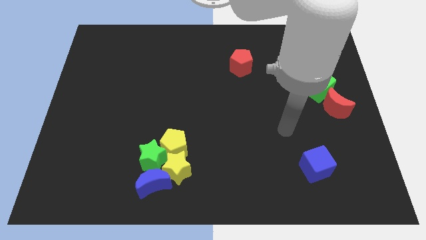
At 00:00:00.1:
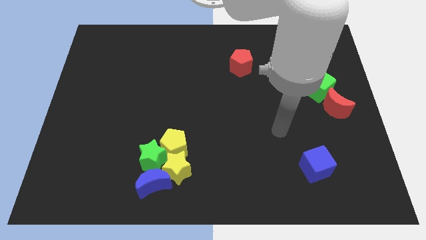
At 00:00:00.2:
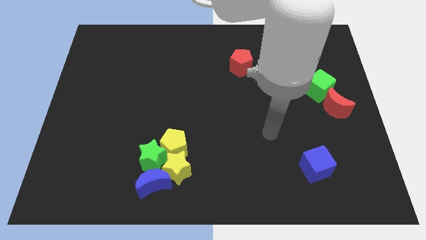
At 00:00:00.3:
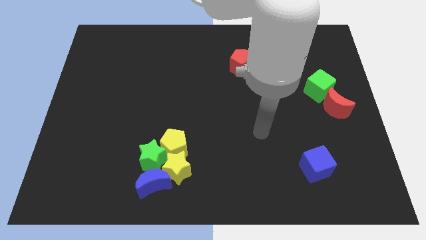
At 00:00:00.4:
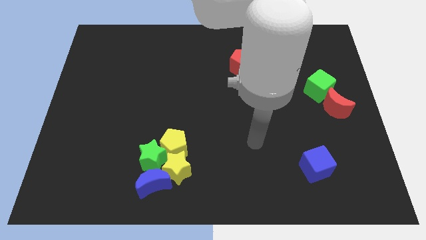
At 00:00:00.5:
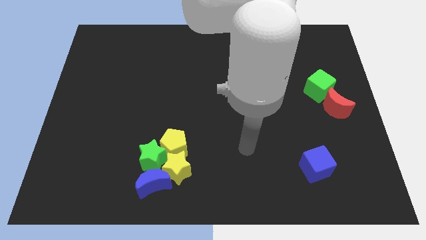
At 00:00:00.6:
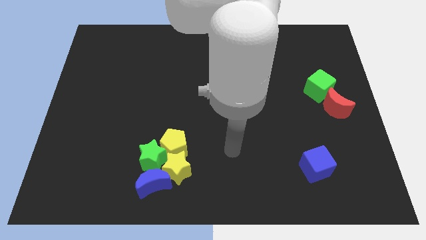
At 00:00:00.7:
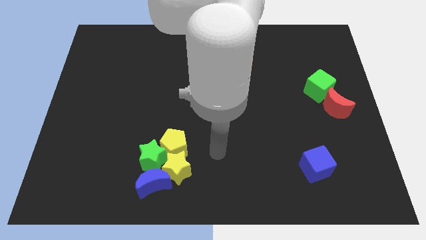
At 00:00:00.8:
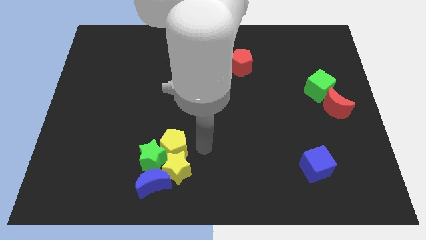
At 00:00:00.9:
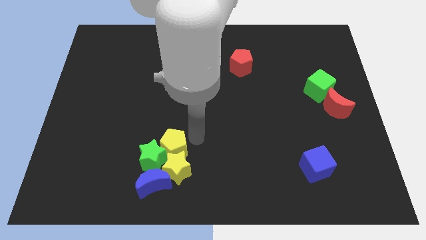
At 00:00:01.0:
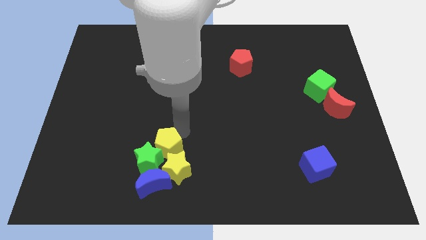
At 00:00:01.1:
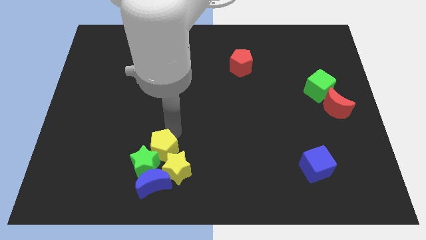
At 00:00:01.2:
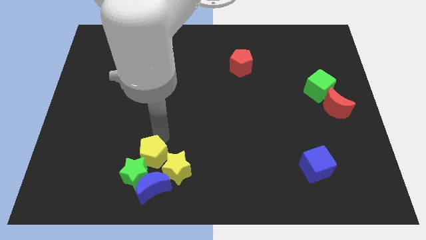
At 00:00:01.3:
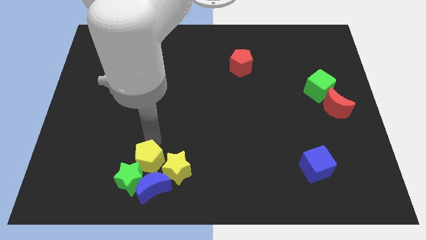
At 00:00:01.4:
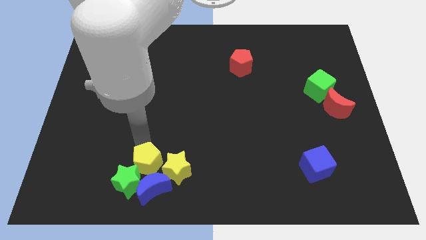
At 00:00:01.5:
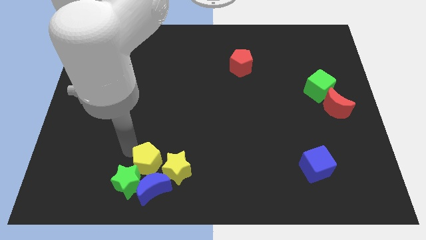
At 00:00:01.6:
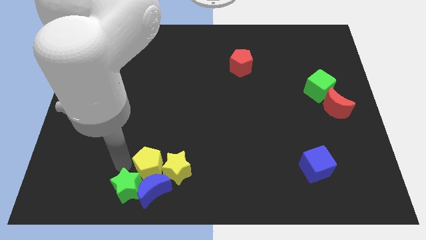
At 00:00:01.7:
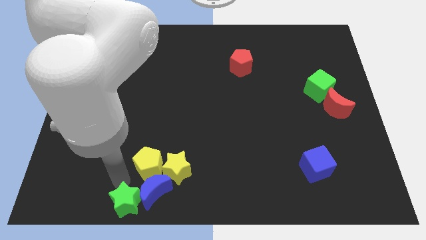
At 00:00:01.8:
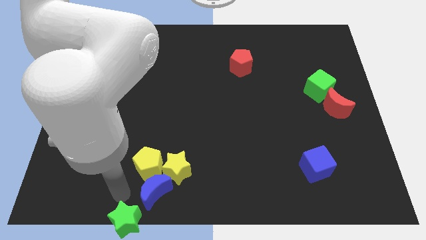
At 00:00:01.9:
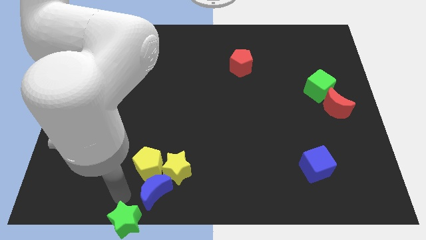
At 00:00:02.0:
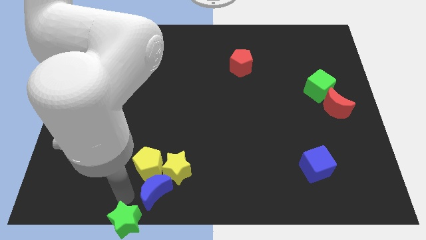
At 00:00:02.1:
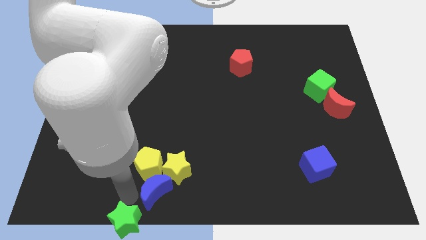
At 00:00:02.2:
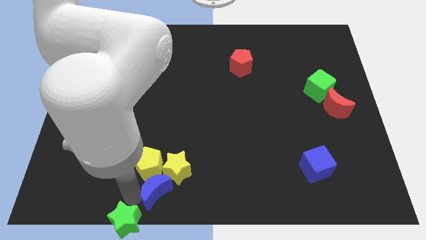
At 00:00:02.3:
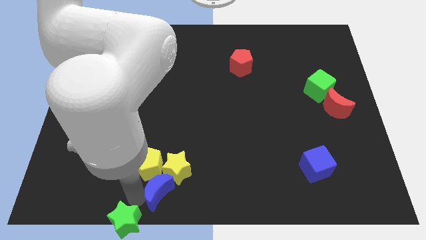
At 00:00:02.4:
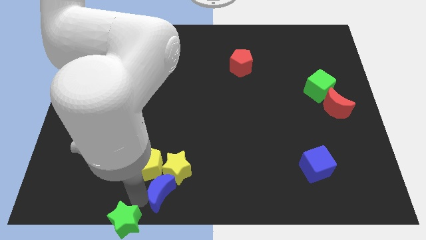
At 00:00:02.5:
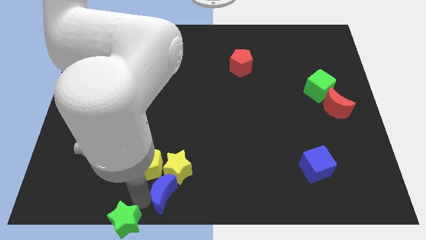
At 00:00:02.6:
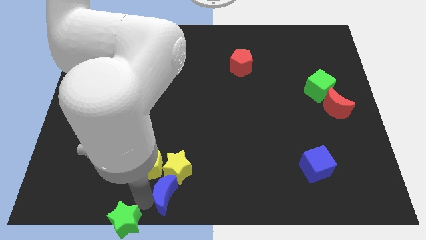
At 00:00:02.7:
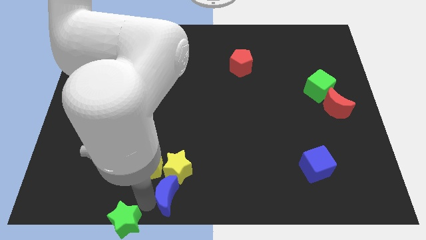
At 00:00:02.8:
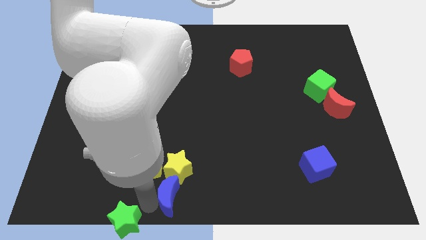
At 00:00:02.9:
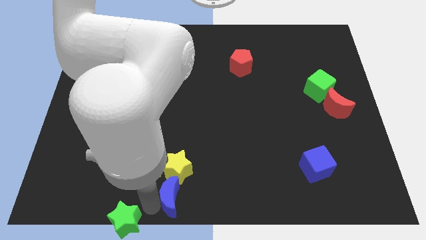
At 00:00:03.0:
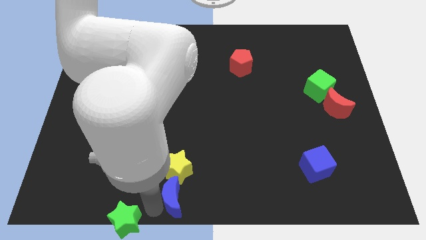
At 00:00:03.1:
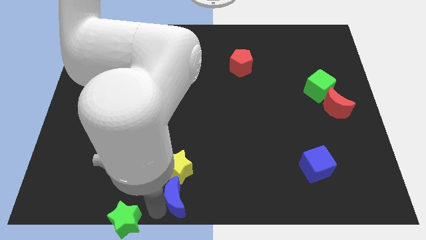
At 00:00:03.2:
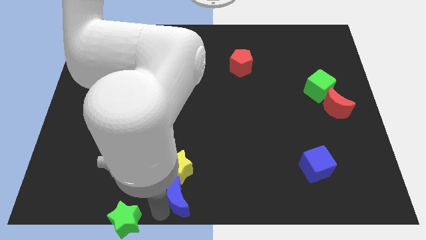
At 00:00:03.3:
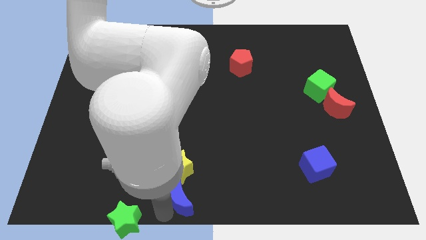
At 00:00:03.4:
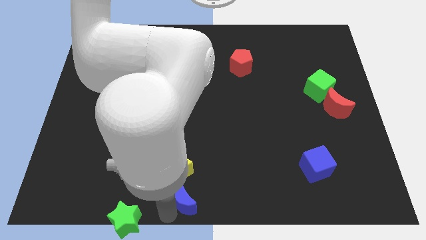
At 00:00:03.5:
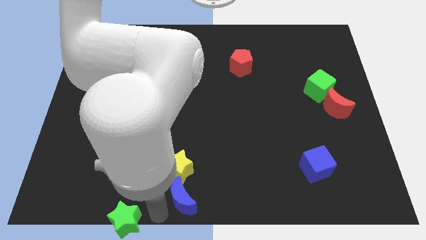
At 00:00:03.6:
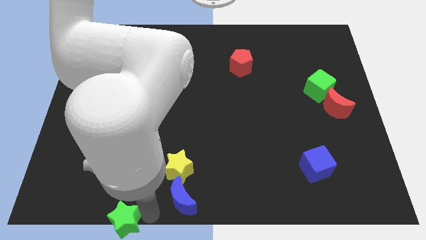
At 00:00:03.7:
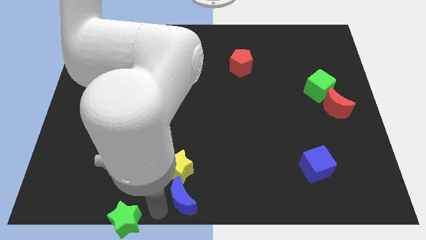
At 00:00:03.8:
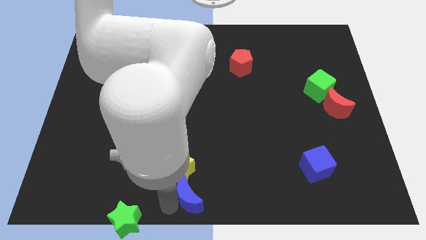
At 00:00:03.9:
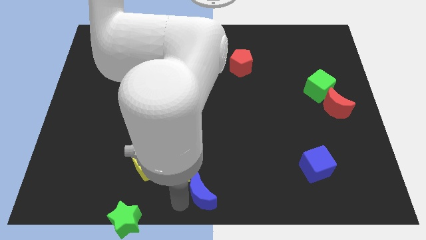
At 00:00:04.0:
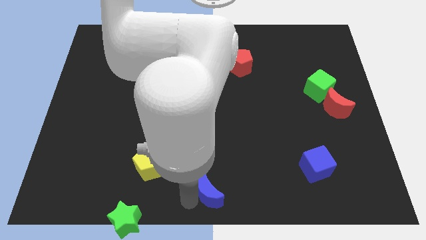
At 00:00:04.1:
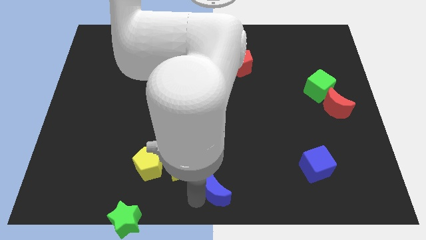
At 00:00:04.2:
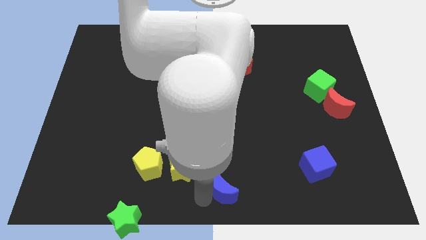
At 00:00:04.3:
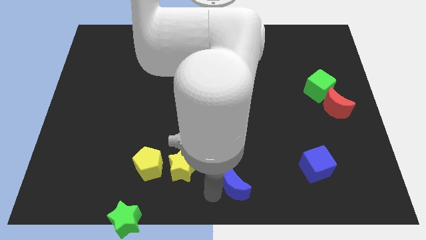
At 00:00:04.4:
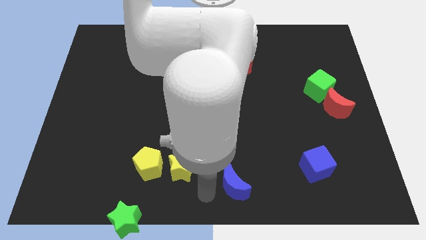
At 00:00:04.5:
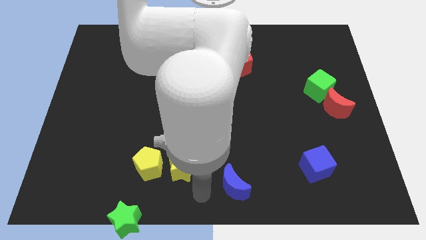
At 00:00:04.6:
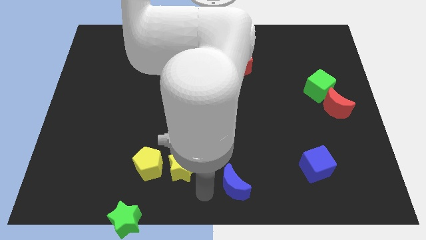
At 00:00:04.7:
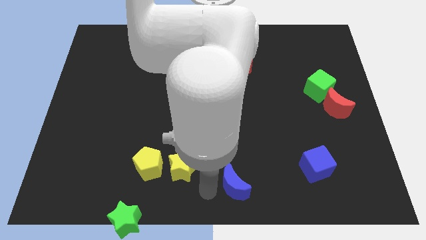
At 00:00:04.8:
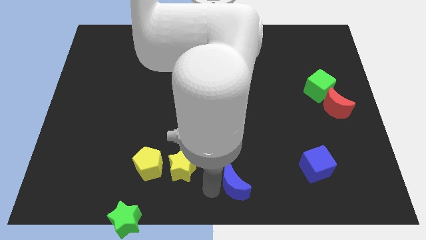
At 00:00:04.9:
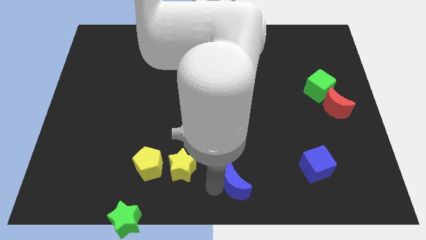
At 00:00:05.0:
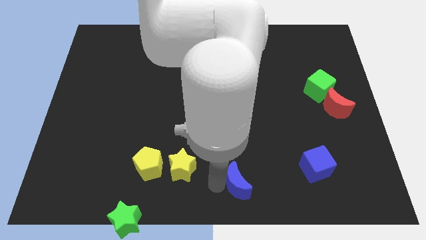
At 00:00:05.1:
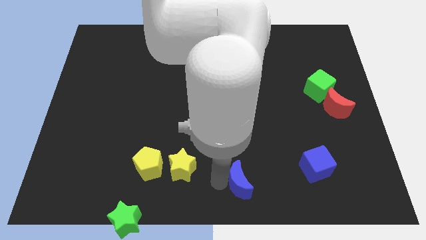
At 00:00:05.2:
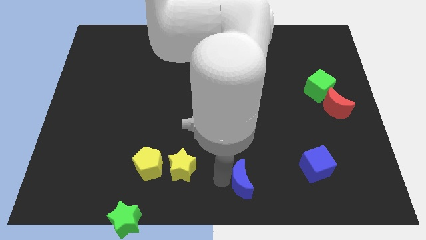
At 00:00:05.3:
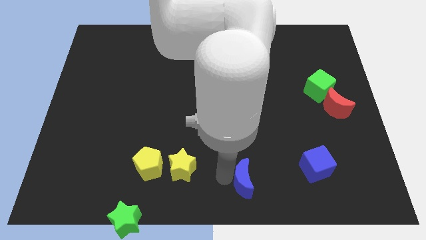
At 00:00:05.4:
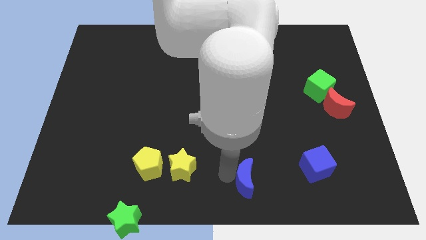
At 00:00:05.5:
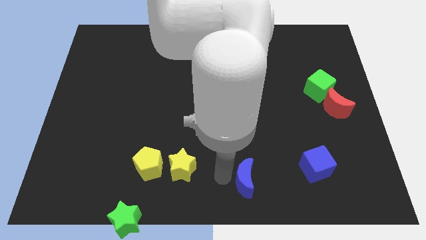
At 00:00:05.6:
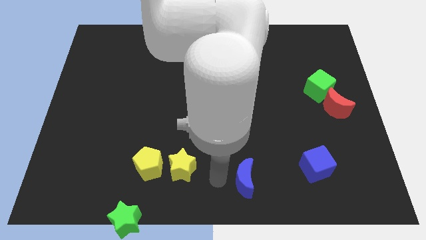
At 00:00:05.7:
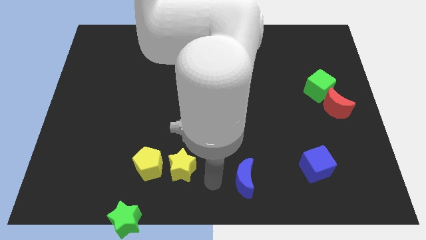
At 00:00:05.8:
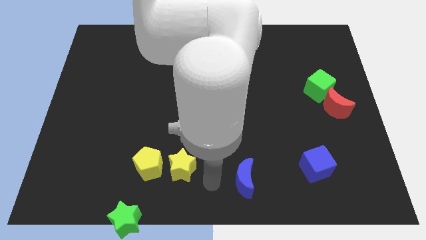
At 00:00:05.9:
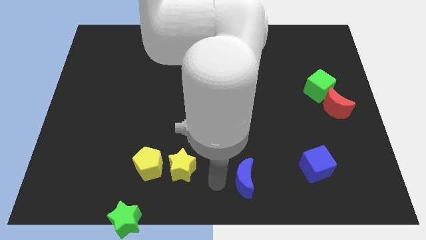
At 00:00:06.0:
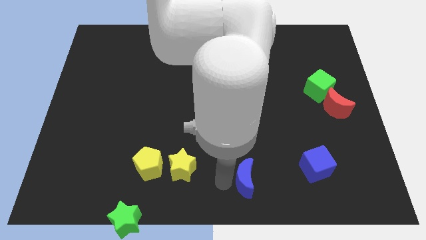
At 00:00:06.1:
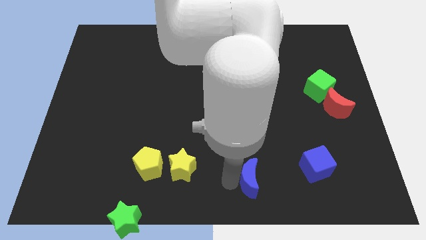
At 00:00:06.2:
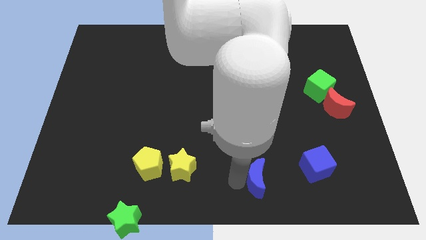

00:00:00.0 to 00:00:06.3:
move the blue moon to the right

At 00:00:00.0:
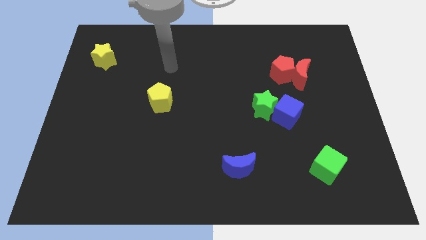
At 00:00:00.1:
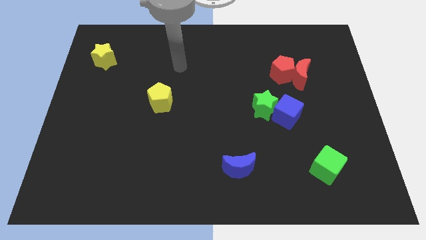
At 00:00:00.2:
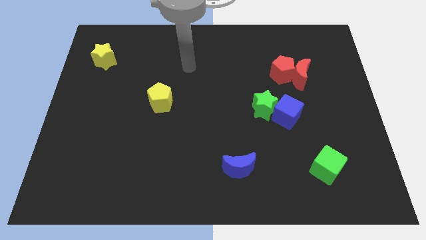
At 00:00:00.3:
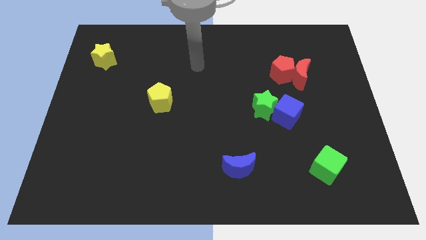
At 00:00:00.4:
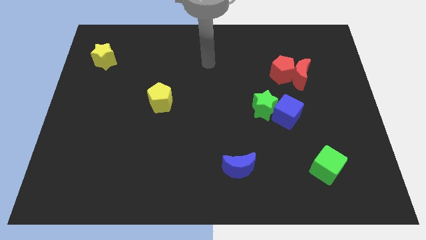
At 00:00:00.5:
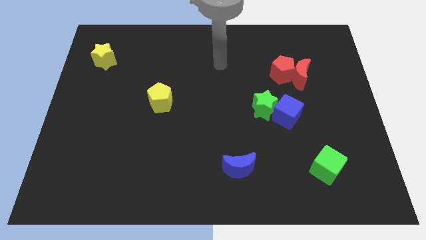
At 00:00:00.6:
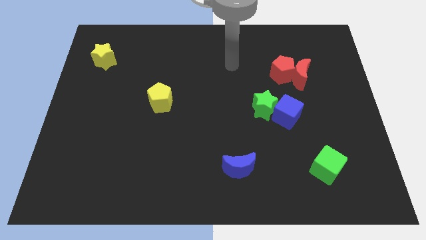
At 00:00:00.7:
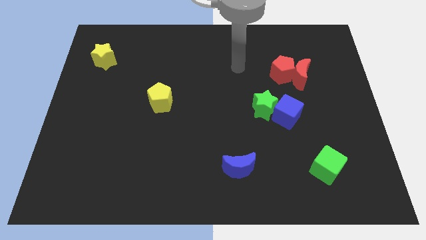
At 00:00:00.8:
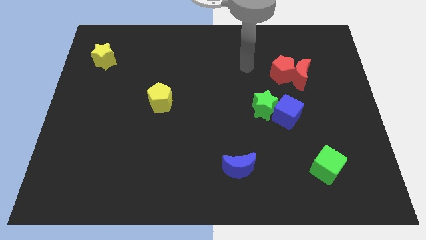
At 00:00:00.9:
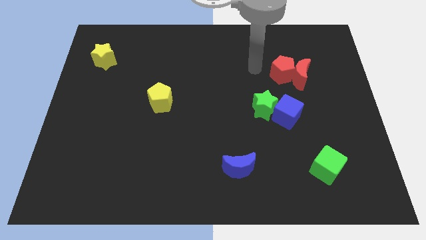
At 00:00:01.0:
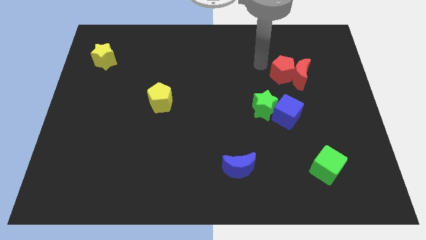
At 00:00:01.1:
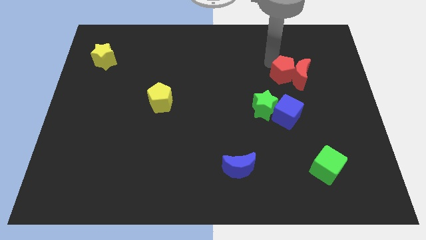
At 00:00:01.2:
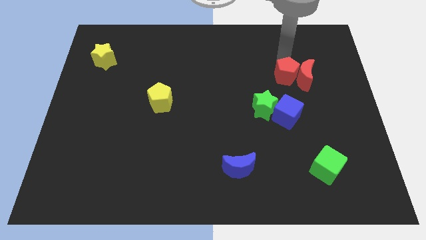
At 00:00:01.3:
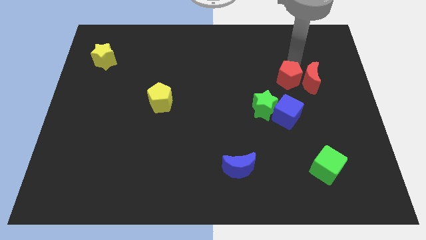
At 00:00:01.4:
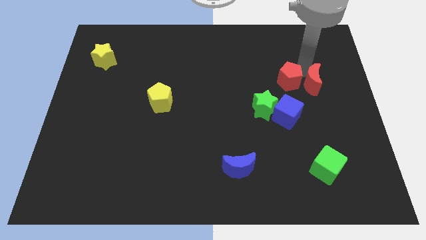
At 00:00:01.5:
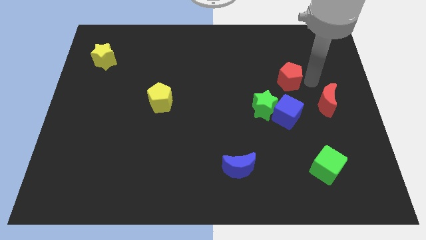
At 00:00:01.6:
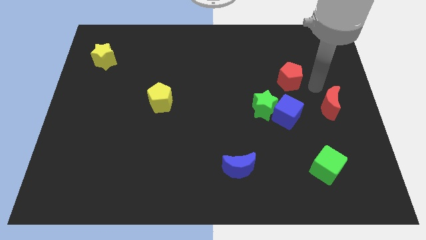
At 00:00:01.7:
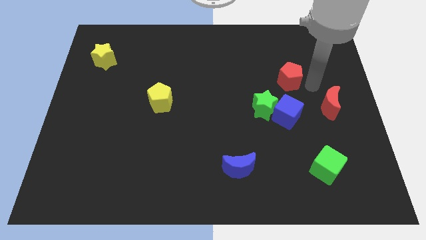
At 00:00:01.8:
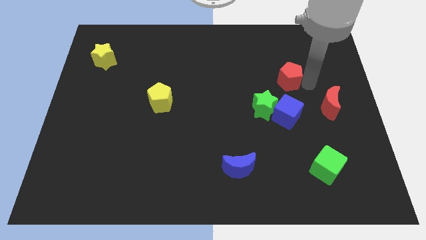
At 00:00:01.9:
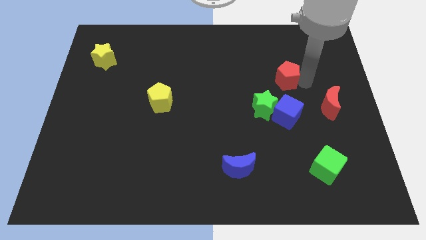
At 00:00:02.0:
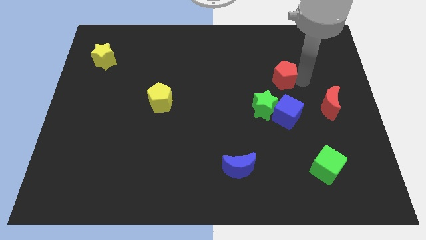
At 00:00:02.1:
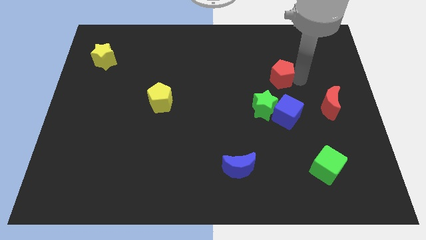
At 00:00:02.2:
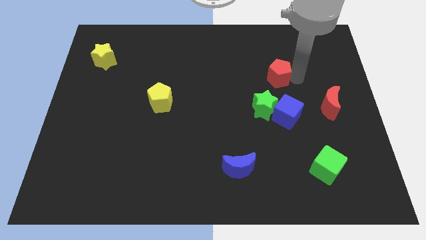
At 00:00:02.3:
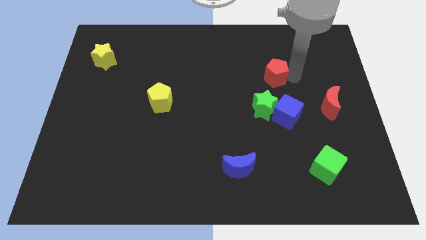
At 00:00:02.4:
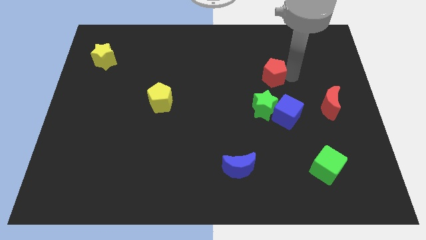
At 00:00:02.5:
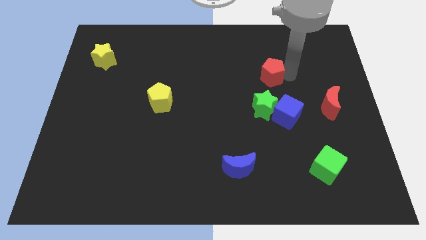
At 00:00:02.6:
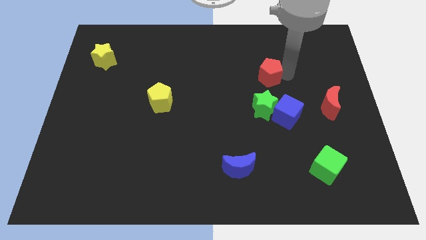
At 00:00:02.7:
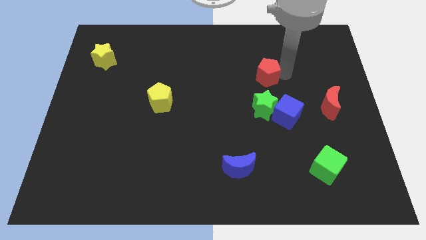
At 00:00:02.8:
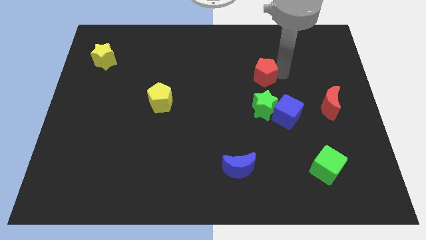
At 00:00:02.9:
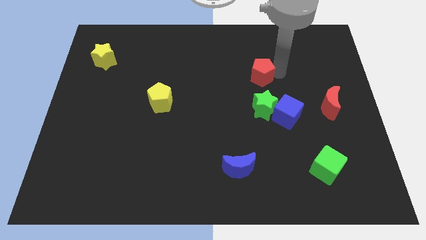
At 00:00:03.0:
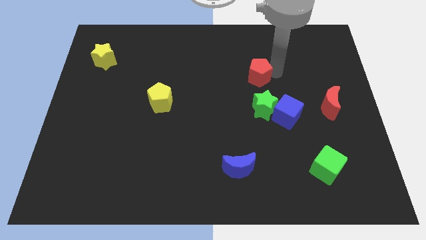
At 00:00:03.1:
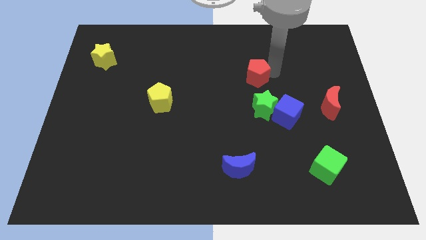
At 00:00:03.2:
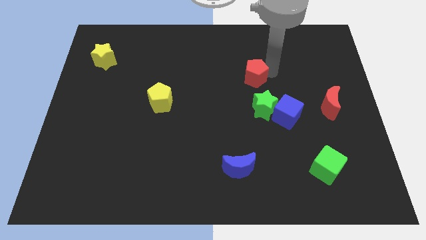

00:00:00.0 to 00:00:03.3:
slightly slide the red pentagon to the left
